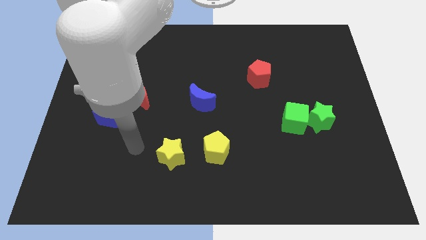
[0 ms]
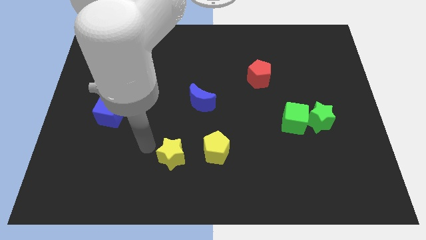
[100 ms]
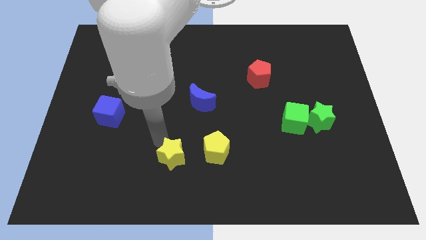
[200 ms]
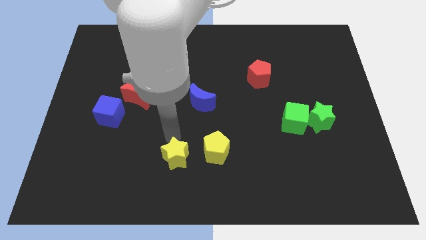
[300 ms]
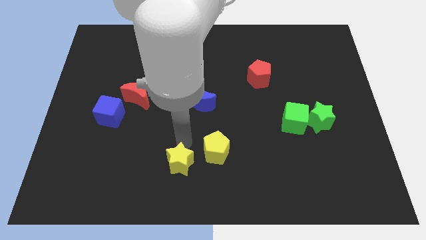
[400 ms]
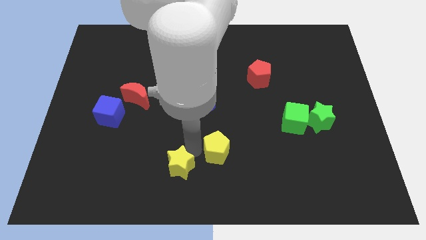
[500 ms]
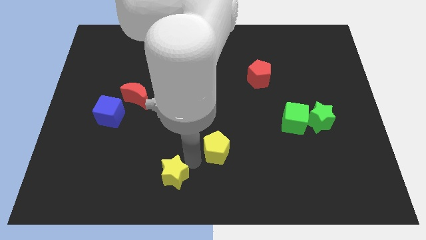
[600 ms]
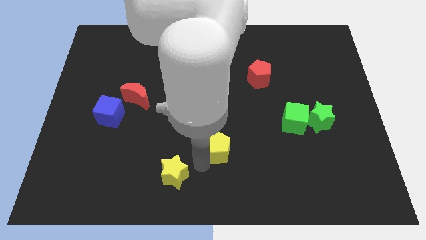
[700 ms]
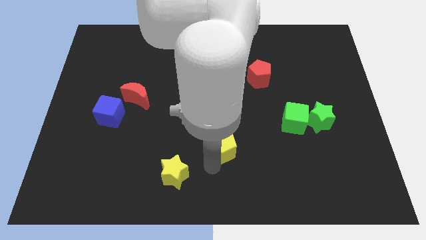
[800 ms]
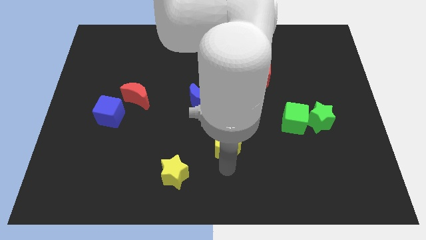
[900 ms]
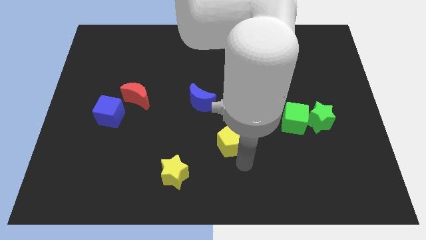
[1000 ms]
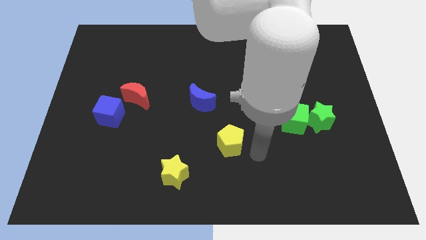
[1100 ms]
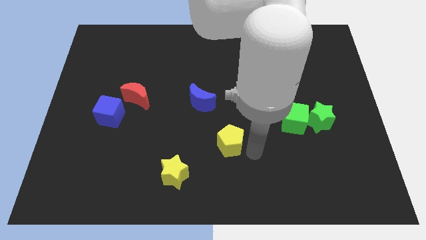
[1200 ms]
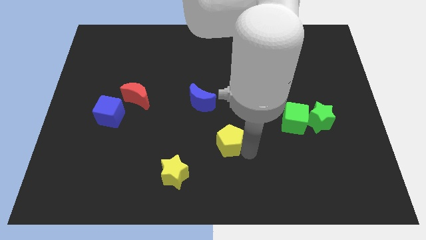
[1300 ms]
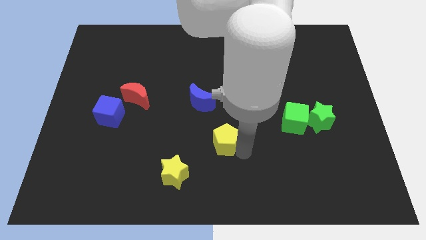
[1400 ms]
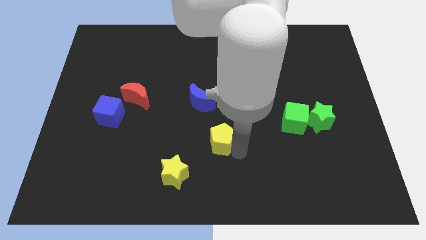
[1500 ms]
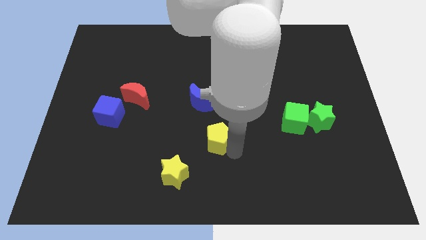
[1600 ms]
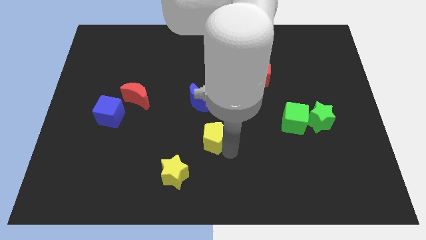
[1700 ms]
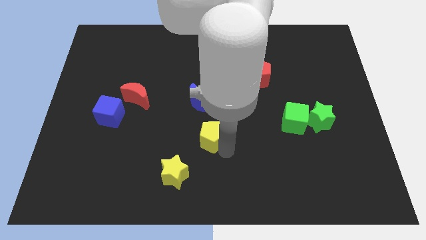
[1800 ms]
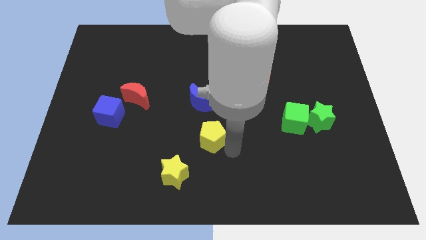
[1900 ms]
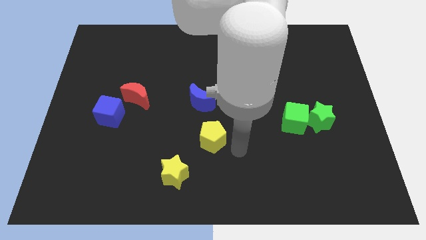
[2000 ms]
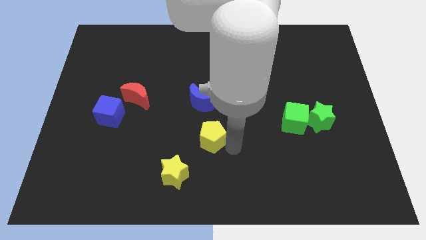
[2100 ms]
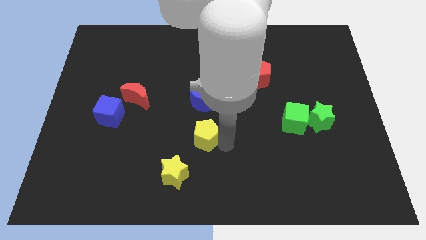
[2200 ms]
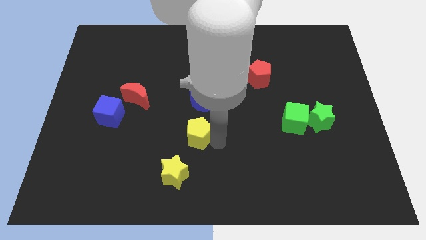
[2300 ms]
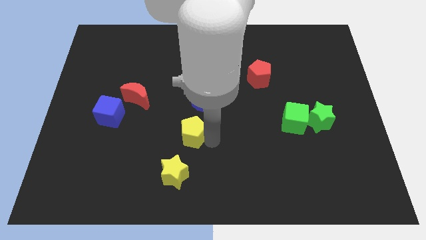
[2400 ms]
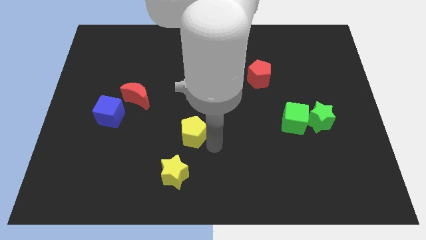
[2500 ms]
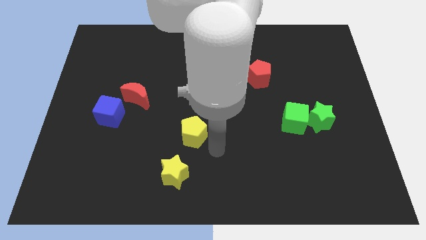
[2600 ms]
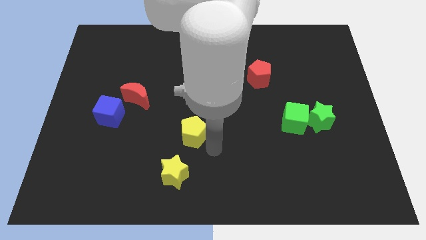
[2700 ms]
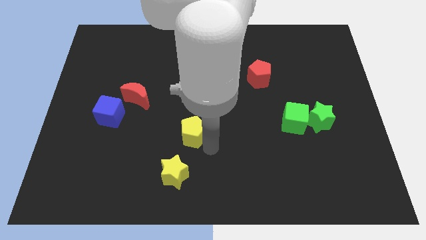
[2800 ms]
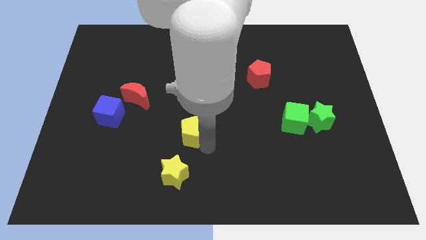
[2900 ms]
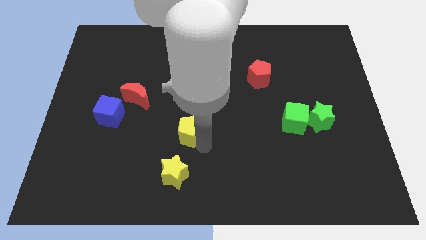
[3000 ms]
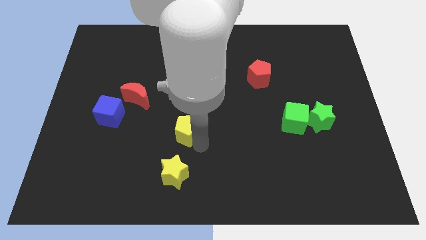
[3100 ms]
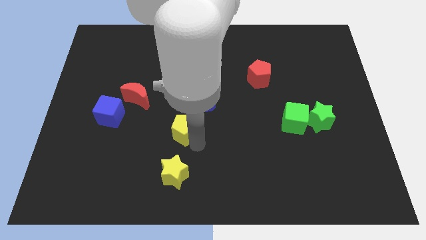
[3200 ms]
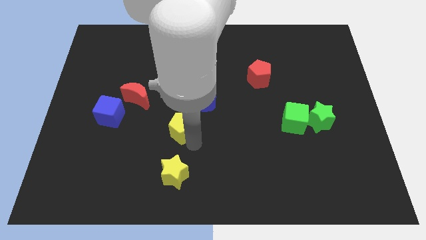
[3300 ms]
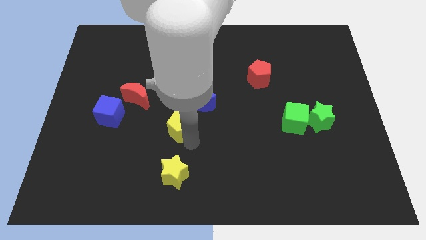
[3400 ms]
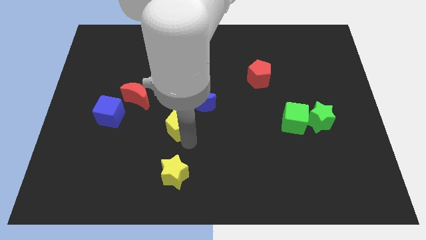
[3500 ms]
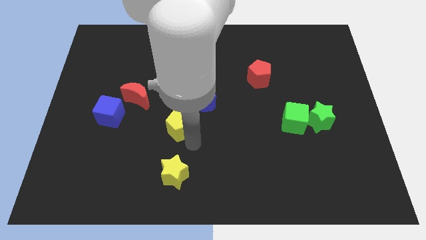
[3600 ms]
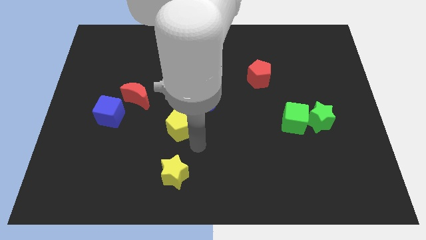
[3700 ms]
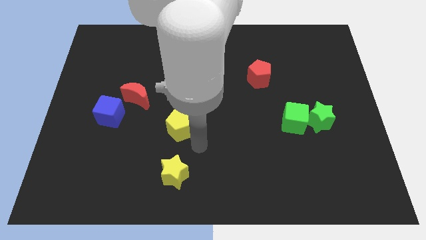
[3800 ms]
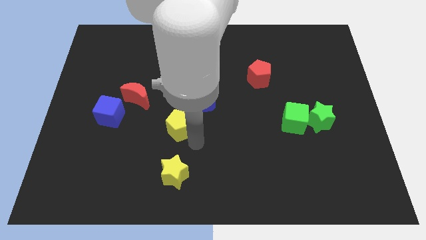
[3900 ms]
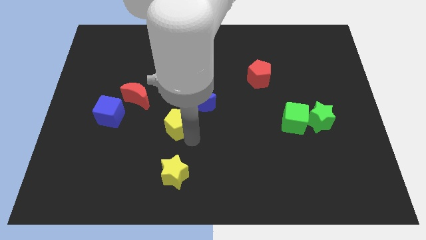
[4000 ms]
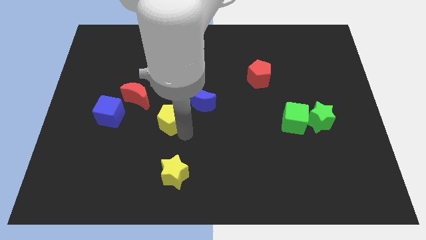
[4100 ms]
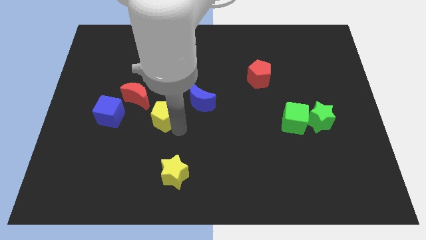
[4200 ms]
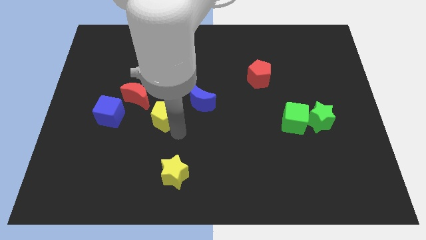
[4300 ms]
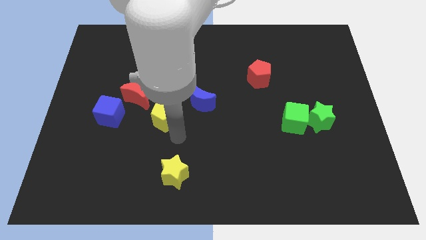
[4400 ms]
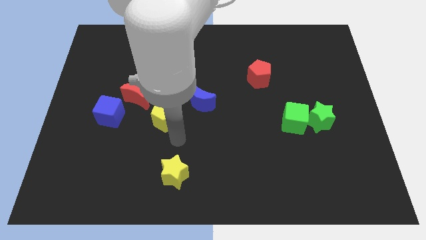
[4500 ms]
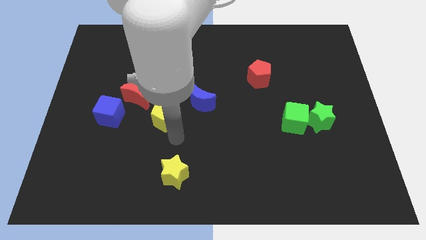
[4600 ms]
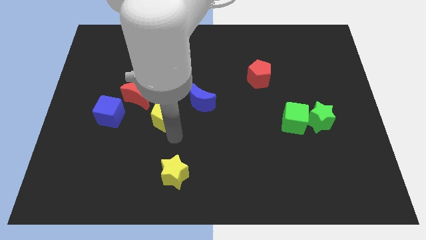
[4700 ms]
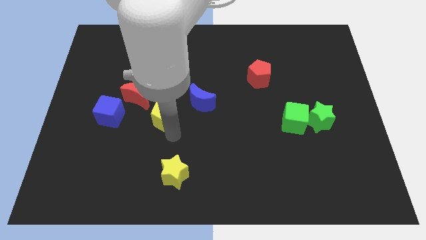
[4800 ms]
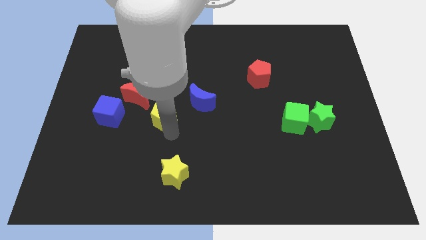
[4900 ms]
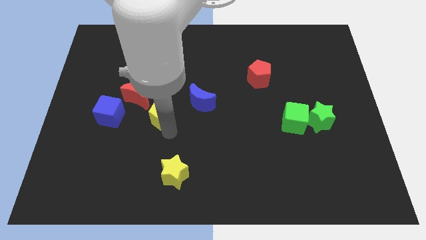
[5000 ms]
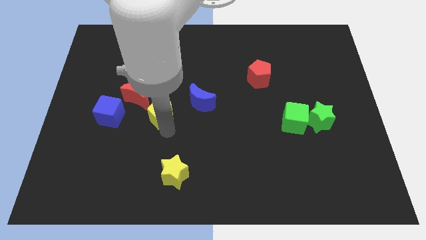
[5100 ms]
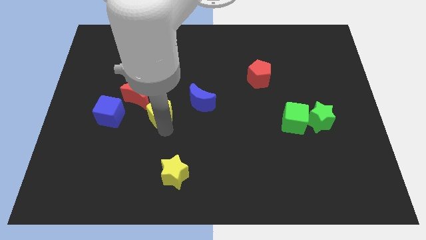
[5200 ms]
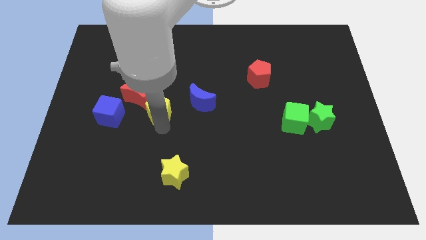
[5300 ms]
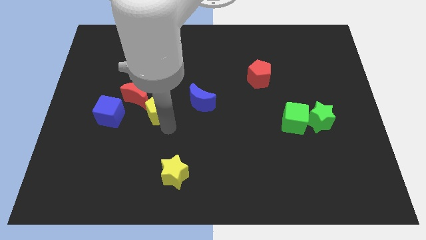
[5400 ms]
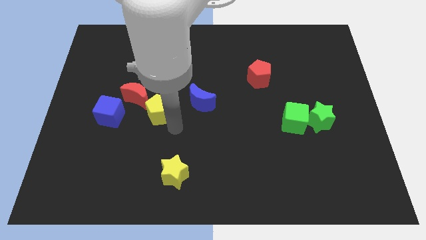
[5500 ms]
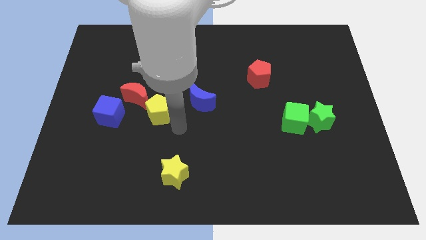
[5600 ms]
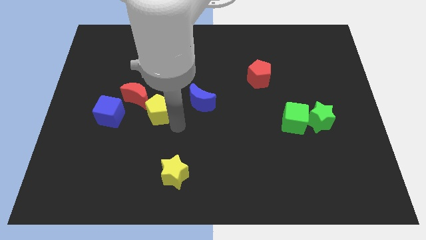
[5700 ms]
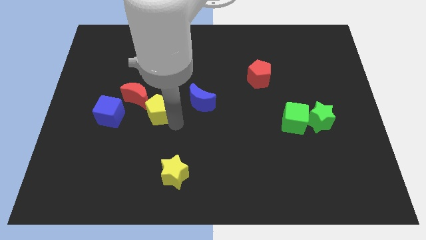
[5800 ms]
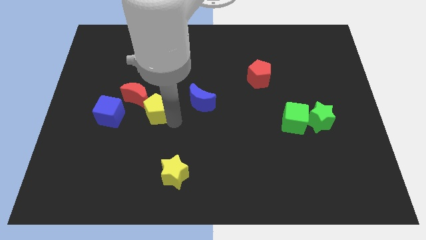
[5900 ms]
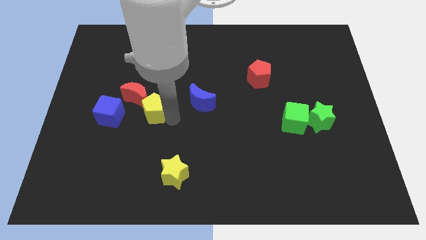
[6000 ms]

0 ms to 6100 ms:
slide the yellow pentagon close to the red moon
